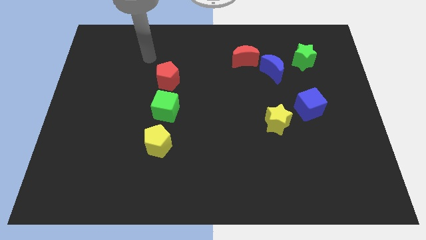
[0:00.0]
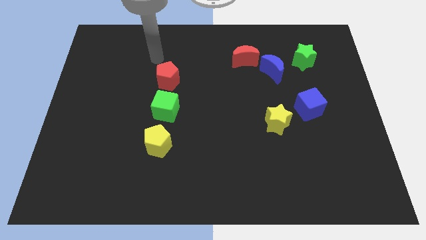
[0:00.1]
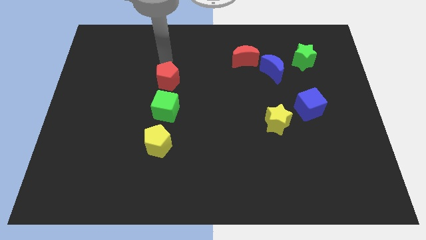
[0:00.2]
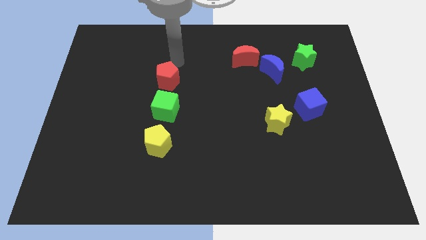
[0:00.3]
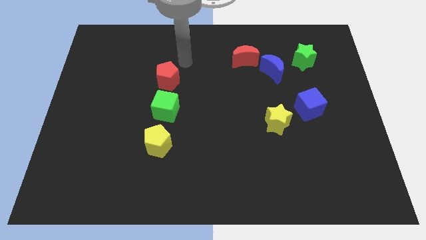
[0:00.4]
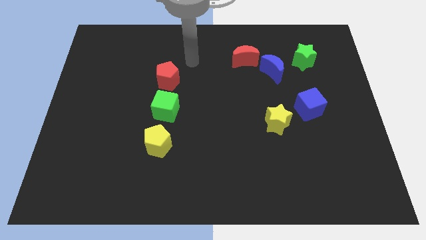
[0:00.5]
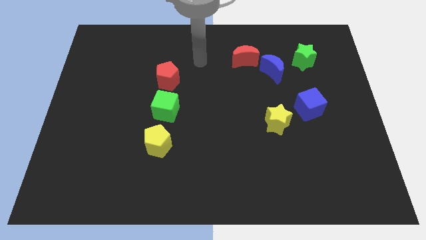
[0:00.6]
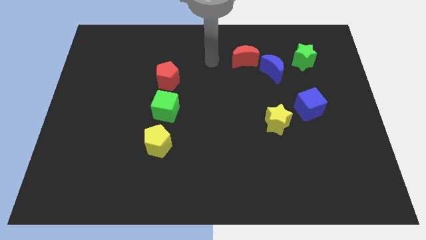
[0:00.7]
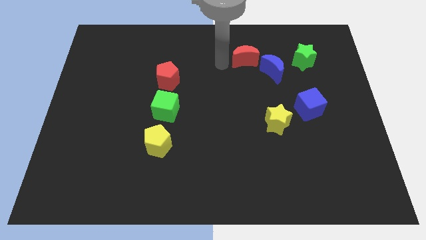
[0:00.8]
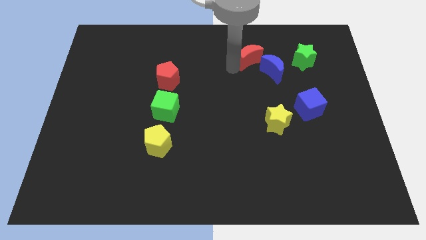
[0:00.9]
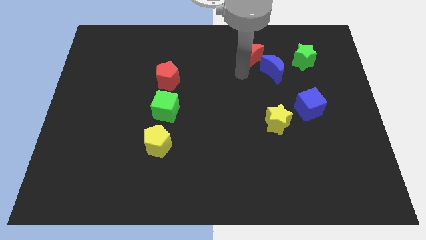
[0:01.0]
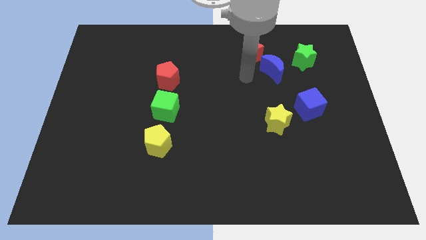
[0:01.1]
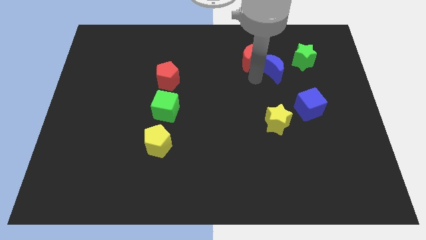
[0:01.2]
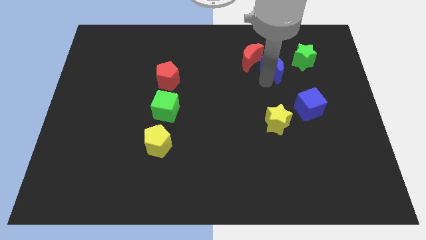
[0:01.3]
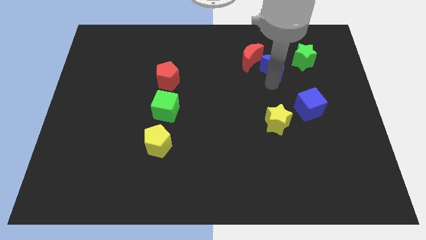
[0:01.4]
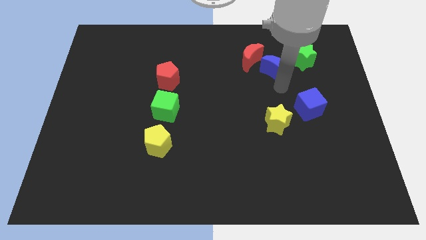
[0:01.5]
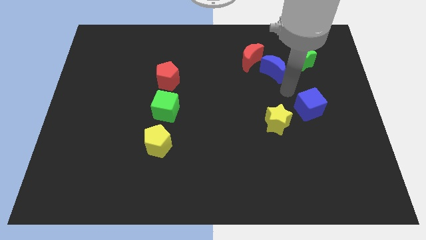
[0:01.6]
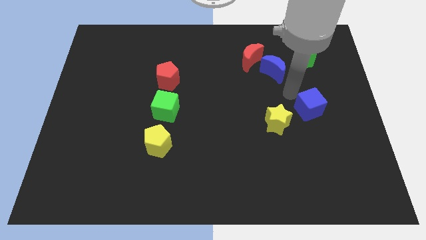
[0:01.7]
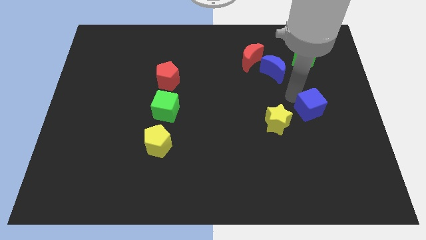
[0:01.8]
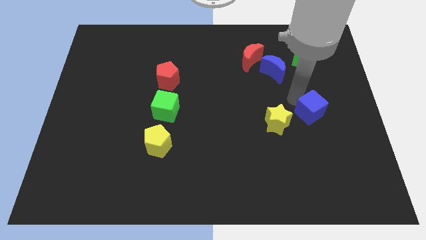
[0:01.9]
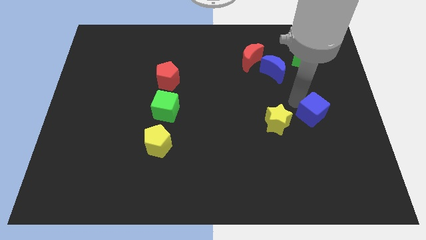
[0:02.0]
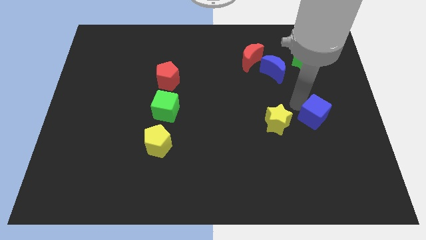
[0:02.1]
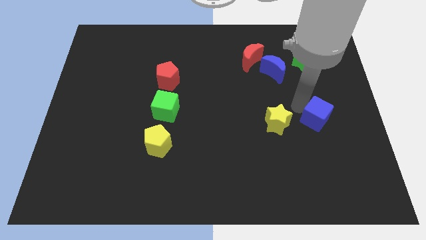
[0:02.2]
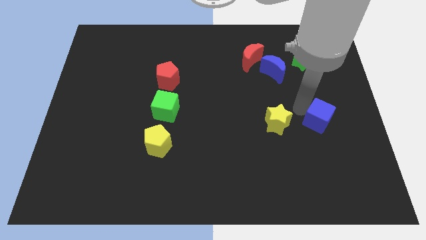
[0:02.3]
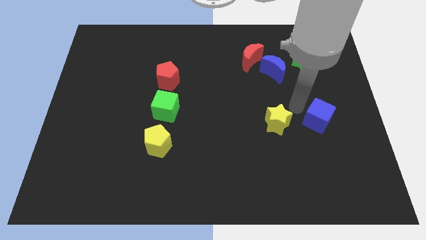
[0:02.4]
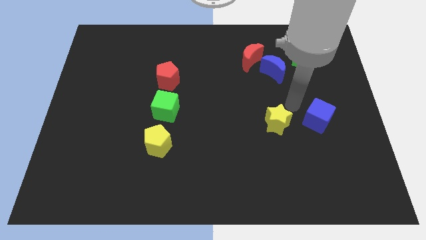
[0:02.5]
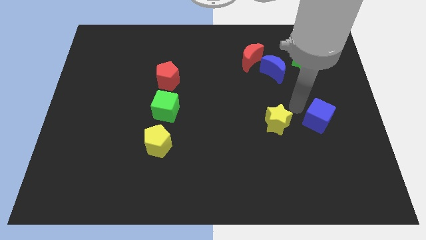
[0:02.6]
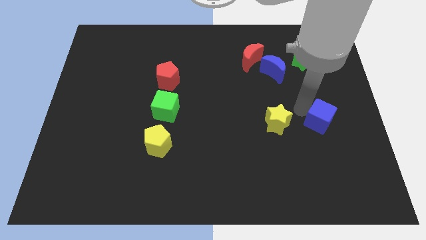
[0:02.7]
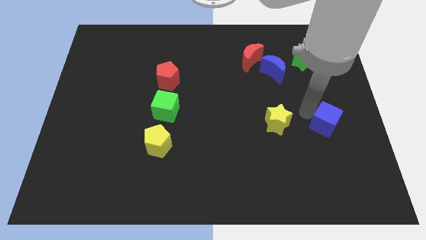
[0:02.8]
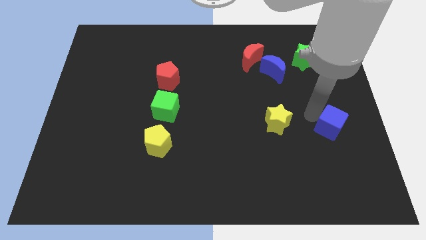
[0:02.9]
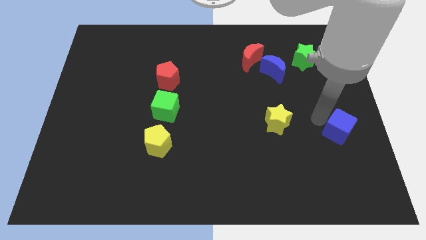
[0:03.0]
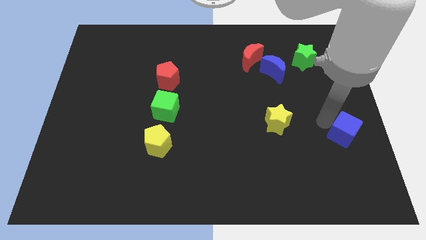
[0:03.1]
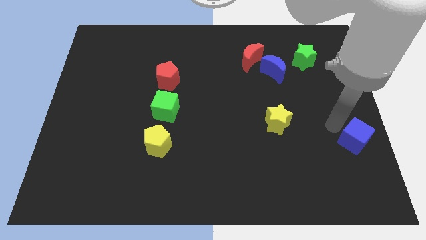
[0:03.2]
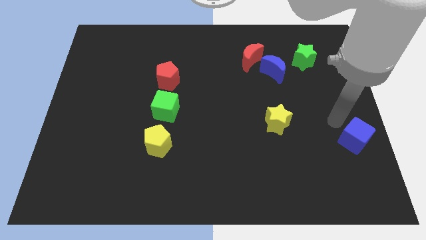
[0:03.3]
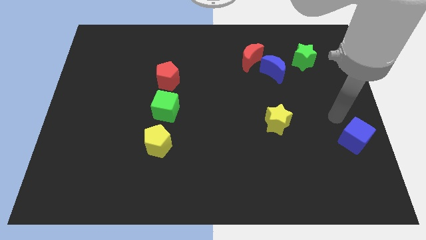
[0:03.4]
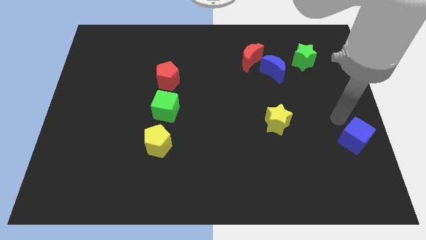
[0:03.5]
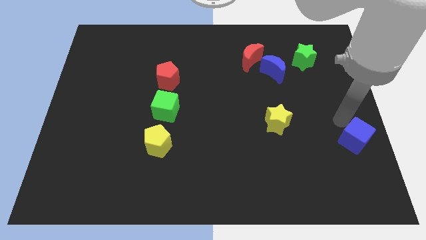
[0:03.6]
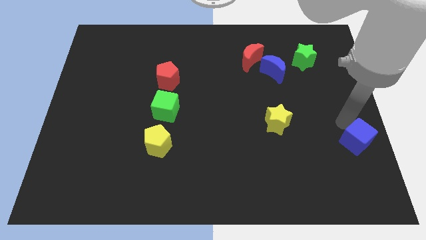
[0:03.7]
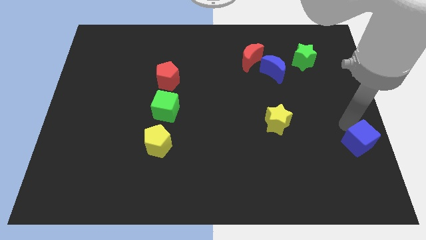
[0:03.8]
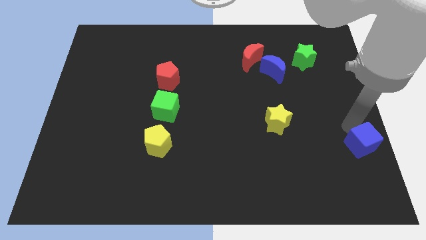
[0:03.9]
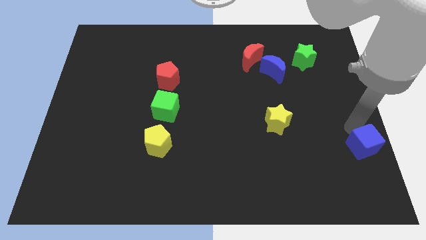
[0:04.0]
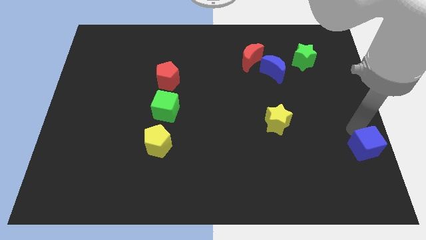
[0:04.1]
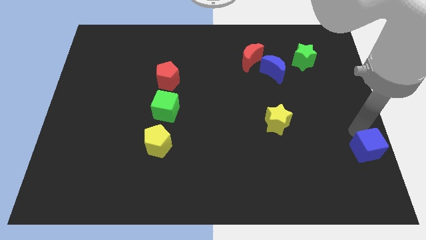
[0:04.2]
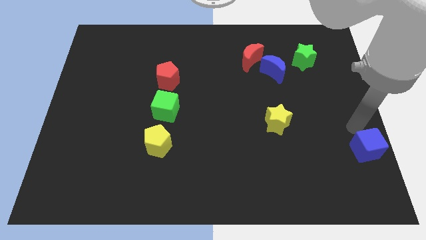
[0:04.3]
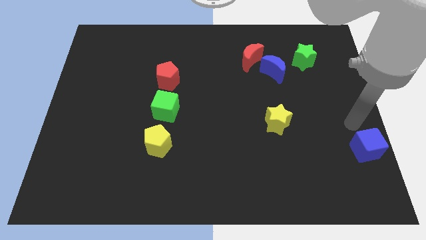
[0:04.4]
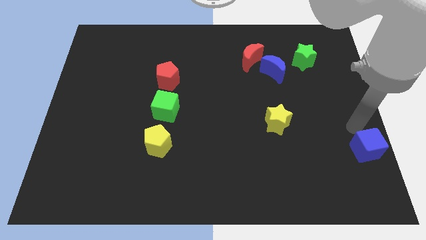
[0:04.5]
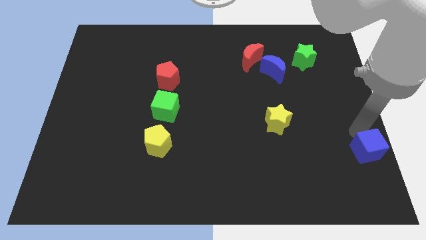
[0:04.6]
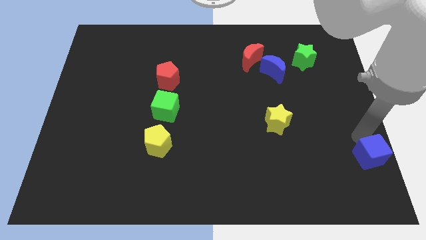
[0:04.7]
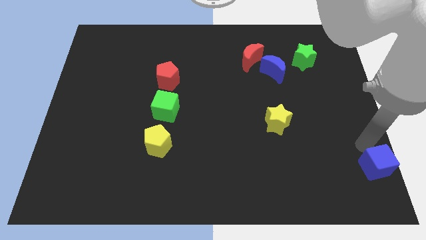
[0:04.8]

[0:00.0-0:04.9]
slide the blue cube to the lower right corner

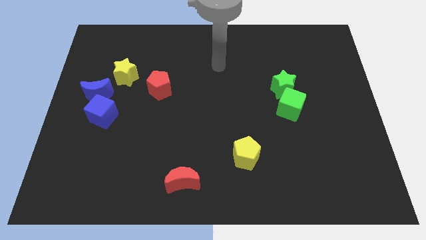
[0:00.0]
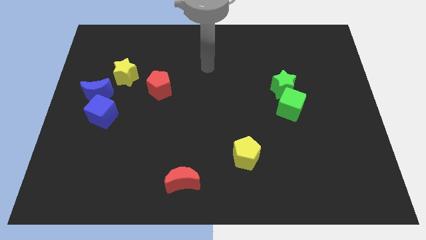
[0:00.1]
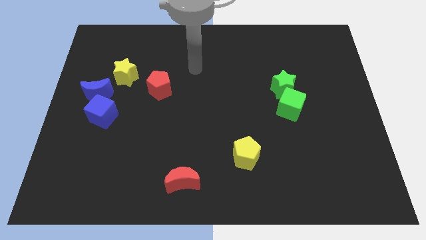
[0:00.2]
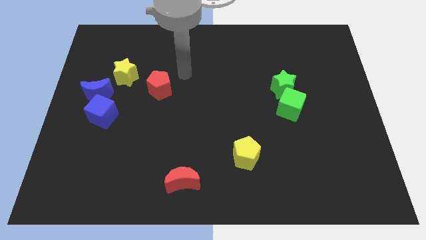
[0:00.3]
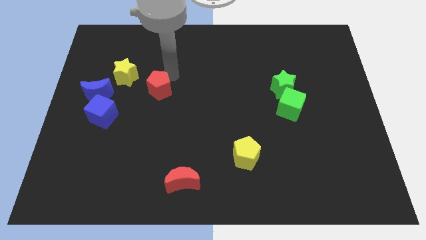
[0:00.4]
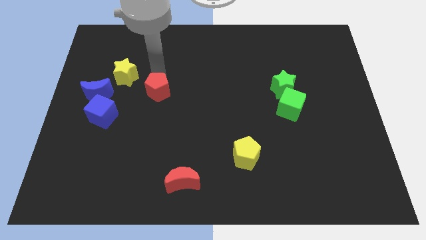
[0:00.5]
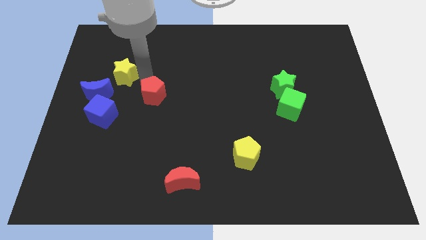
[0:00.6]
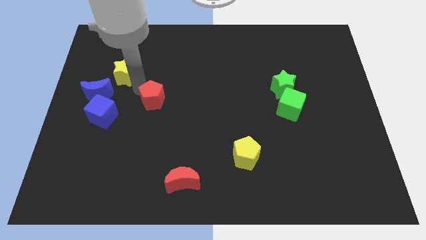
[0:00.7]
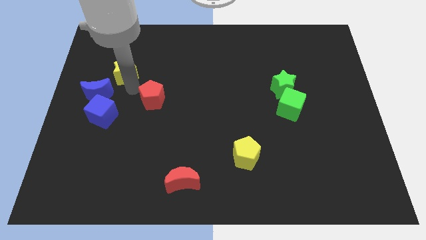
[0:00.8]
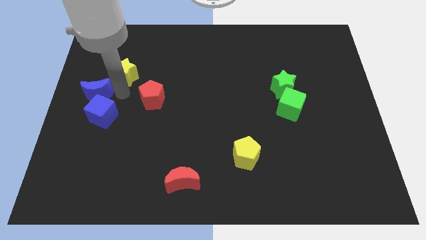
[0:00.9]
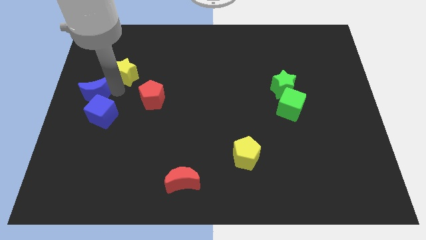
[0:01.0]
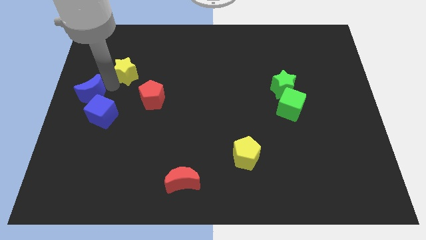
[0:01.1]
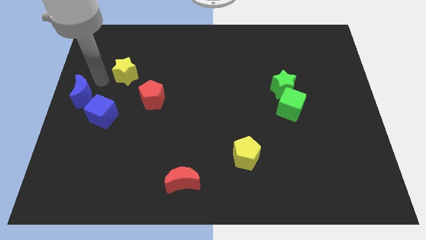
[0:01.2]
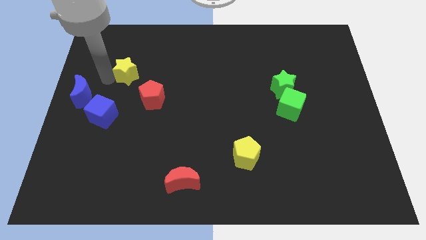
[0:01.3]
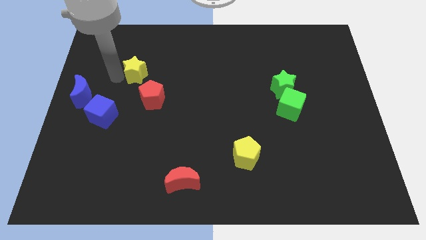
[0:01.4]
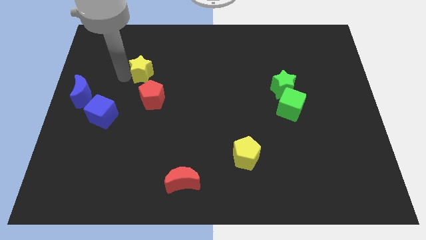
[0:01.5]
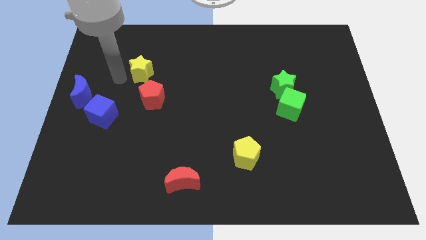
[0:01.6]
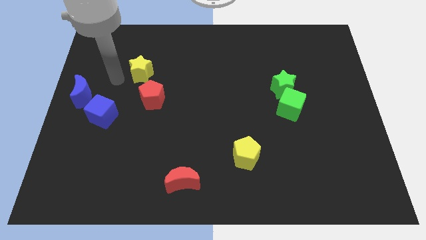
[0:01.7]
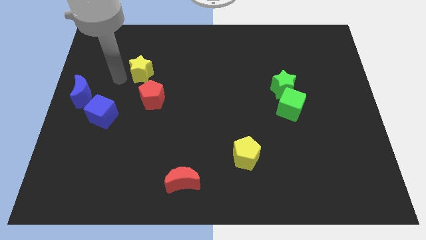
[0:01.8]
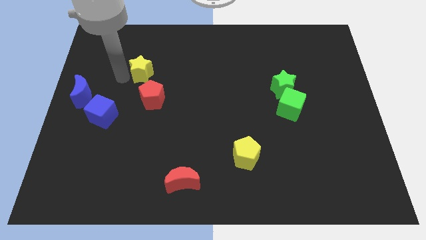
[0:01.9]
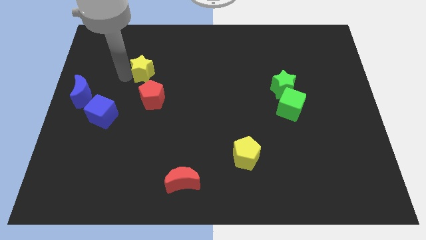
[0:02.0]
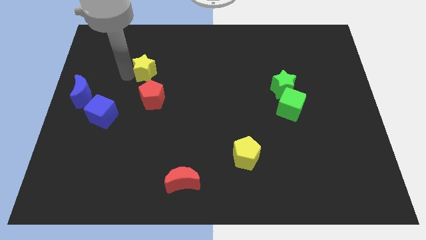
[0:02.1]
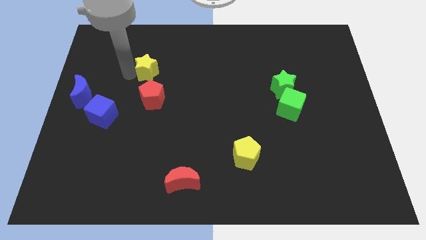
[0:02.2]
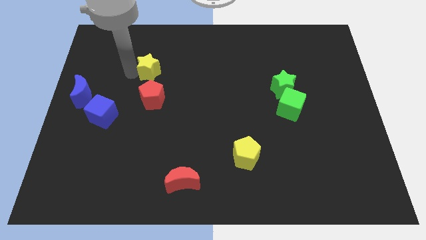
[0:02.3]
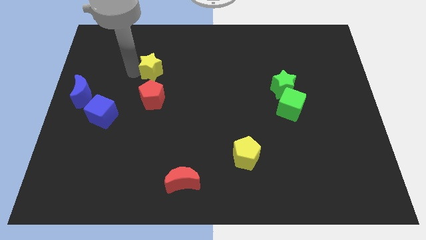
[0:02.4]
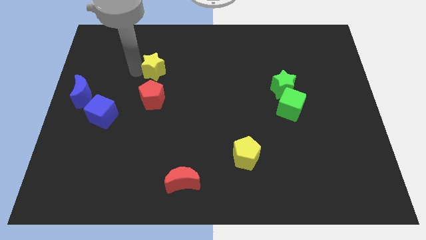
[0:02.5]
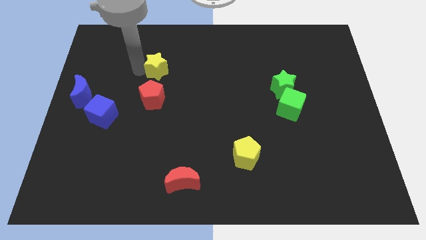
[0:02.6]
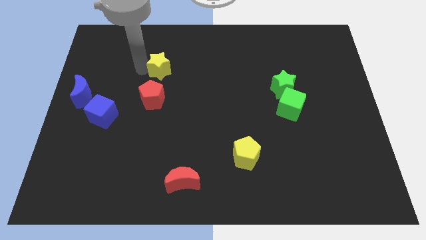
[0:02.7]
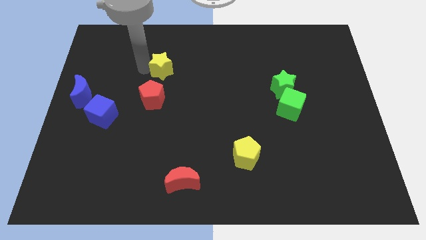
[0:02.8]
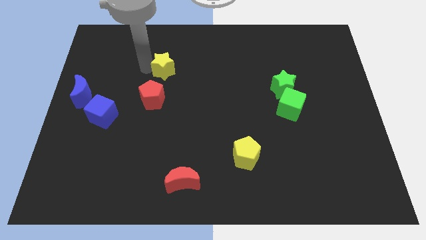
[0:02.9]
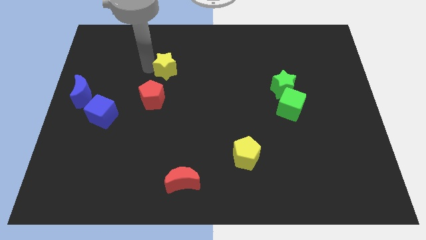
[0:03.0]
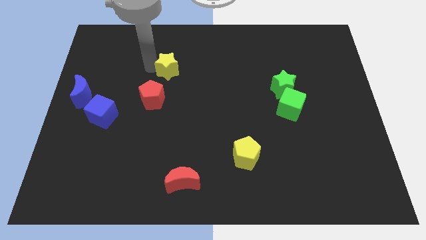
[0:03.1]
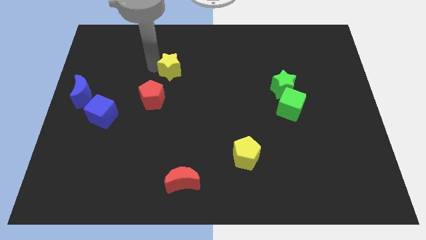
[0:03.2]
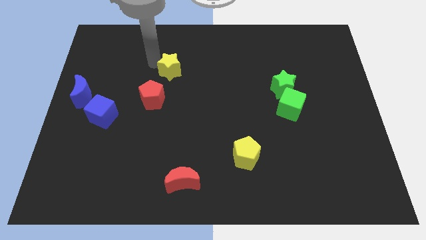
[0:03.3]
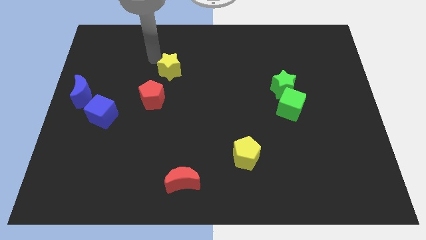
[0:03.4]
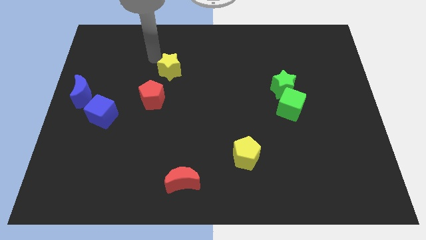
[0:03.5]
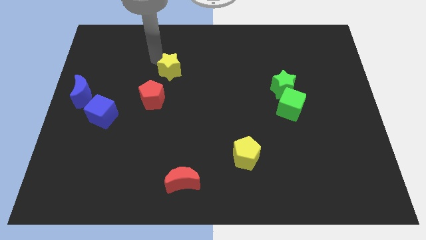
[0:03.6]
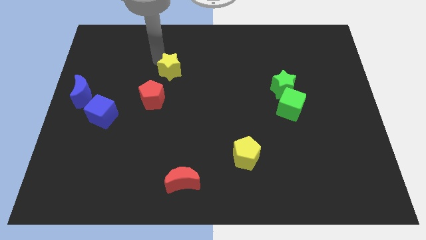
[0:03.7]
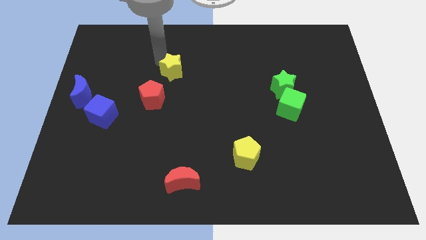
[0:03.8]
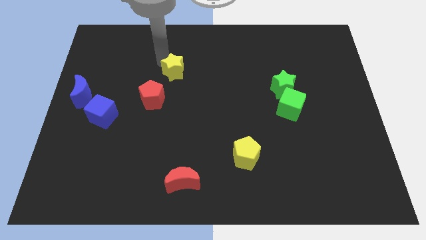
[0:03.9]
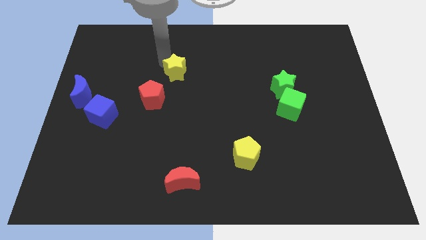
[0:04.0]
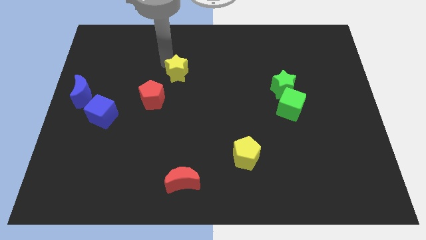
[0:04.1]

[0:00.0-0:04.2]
push the yellow star to the middle of the board
